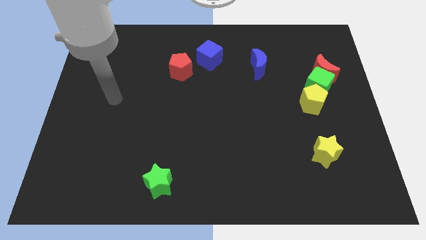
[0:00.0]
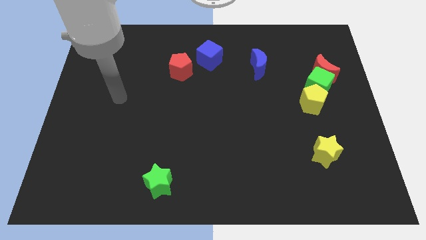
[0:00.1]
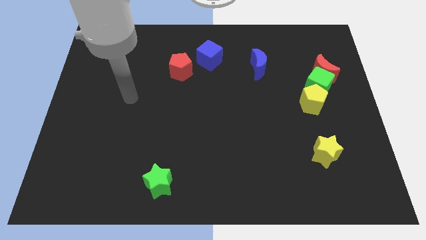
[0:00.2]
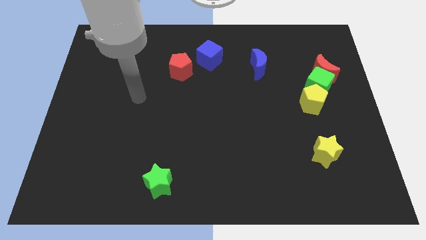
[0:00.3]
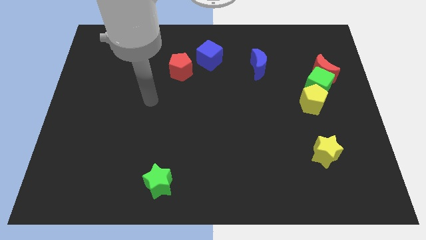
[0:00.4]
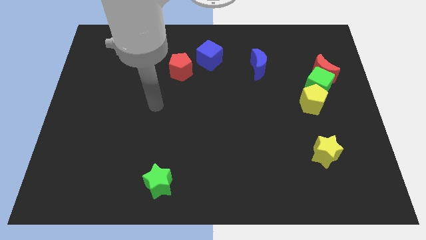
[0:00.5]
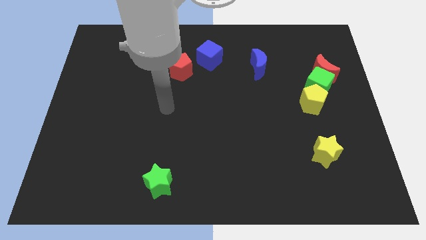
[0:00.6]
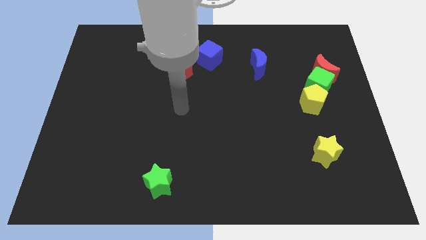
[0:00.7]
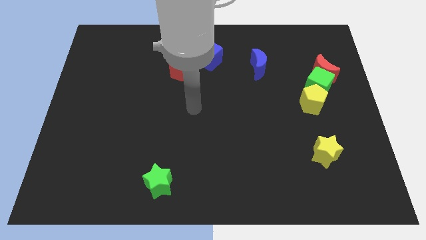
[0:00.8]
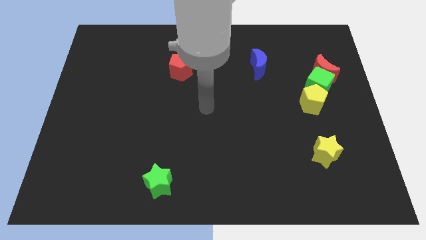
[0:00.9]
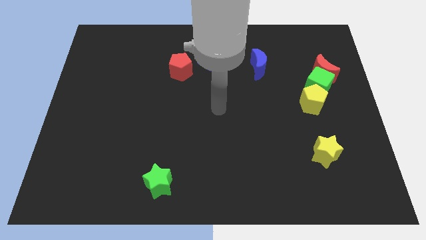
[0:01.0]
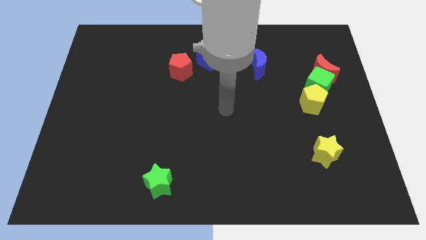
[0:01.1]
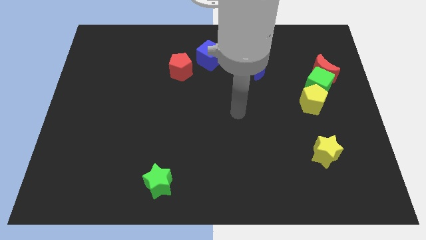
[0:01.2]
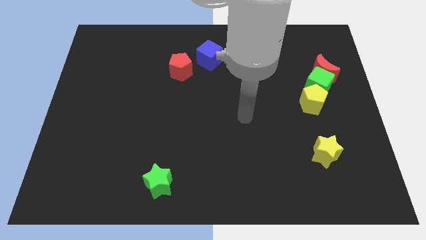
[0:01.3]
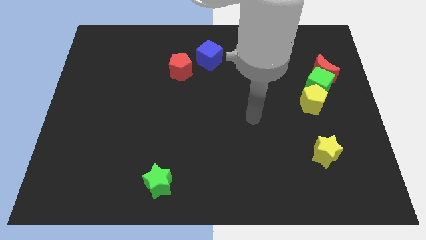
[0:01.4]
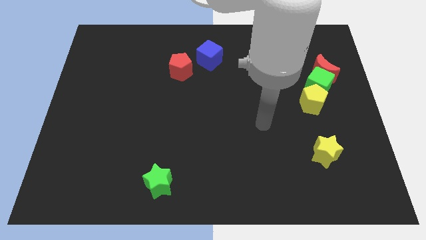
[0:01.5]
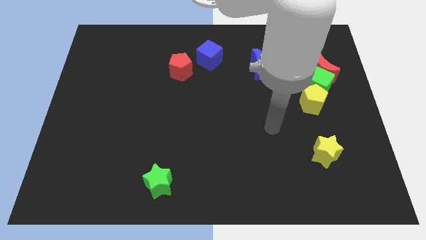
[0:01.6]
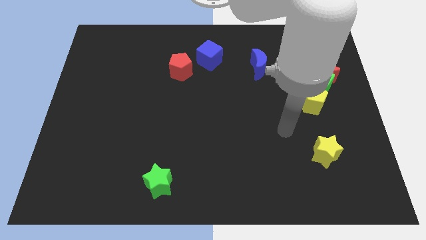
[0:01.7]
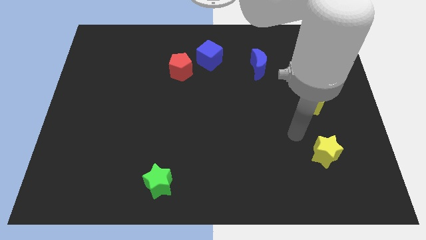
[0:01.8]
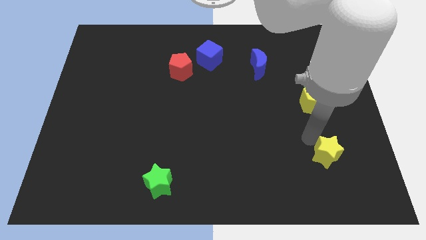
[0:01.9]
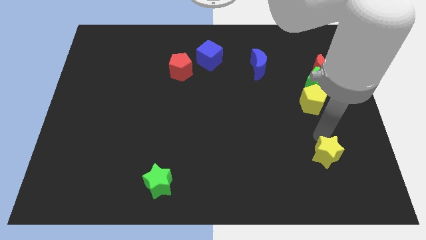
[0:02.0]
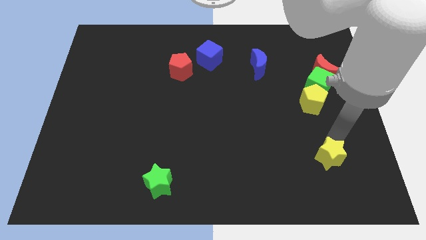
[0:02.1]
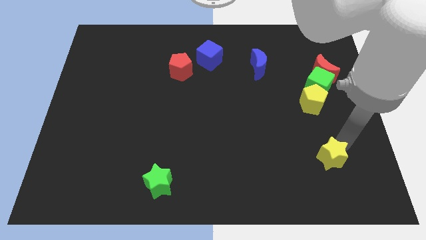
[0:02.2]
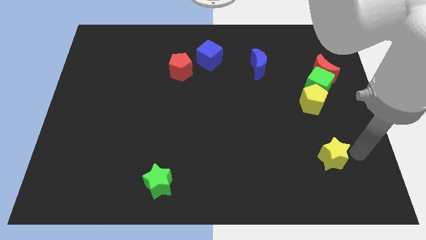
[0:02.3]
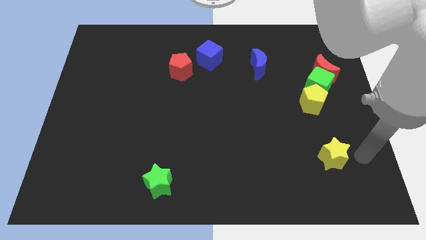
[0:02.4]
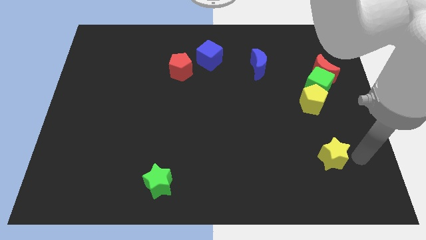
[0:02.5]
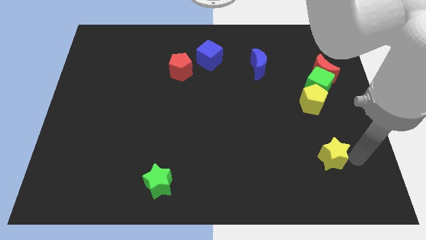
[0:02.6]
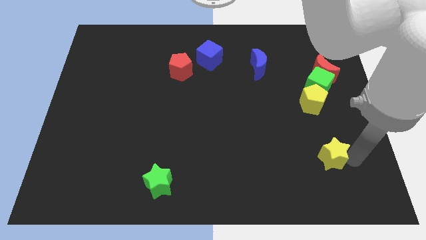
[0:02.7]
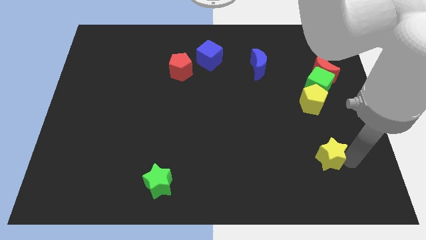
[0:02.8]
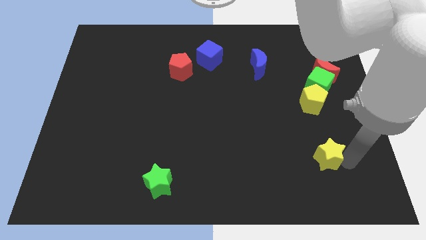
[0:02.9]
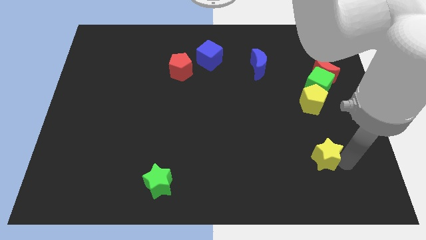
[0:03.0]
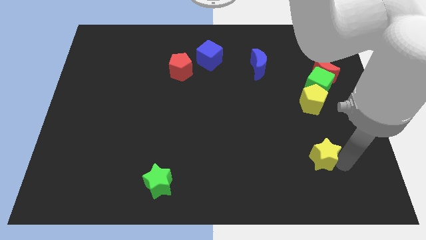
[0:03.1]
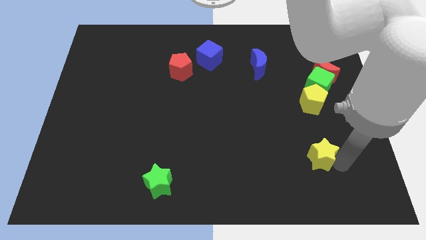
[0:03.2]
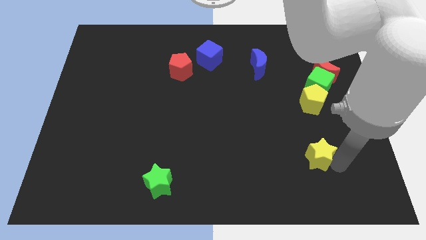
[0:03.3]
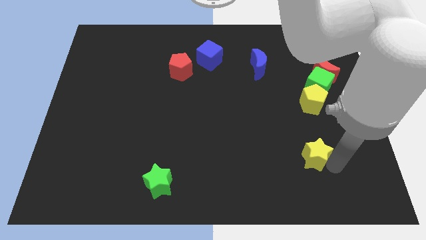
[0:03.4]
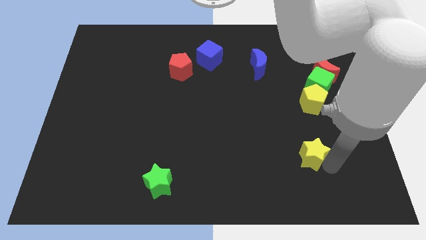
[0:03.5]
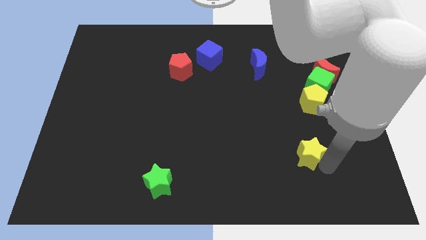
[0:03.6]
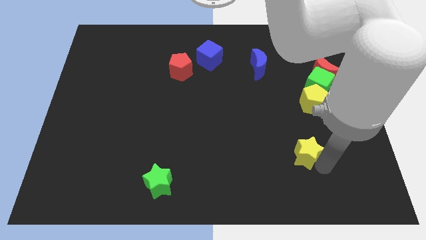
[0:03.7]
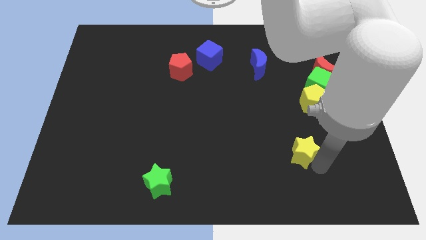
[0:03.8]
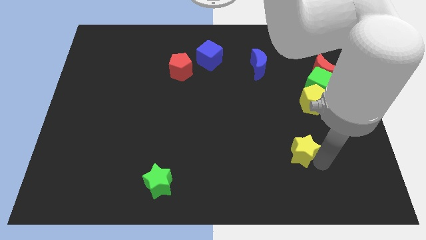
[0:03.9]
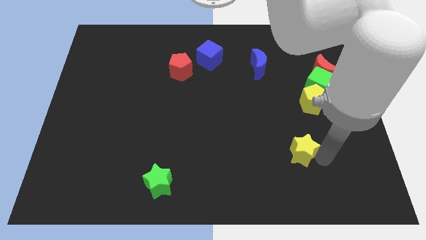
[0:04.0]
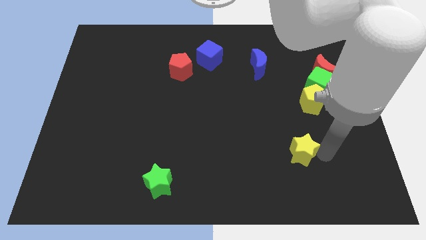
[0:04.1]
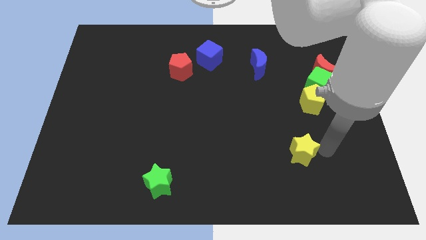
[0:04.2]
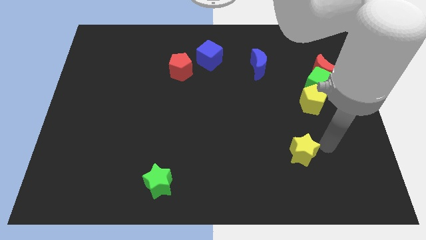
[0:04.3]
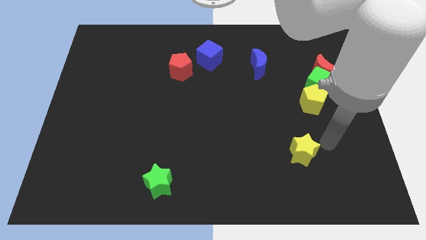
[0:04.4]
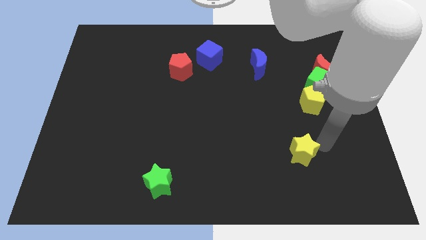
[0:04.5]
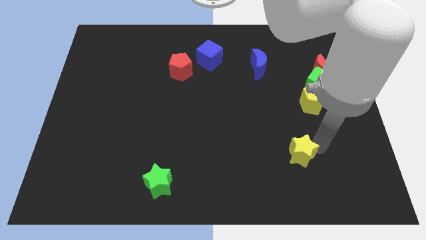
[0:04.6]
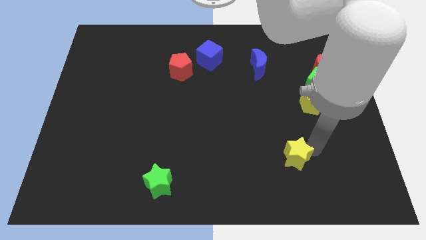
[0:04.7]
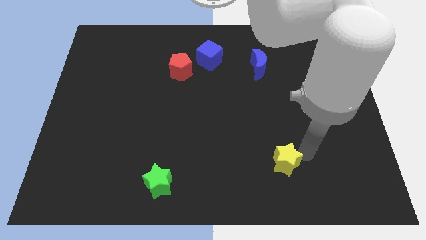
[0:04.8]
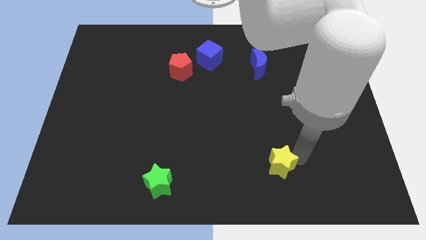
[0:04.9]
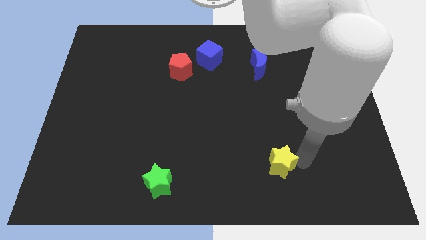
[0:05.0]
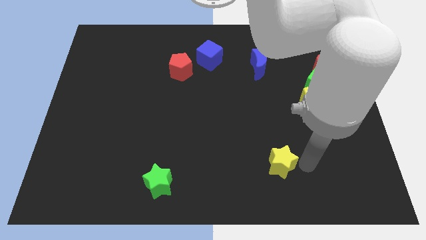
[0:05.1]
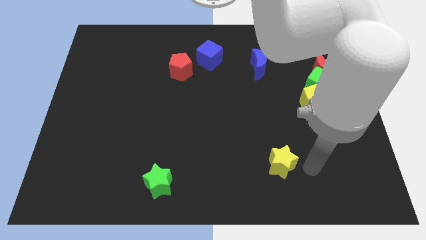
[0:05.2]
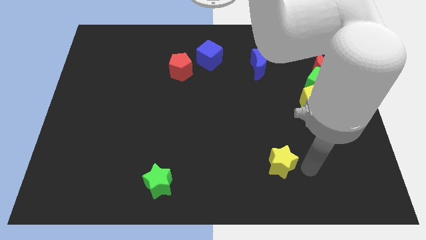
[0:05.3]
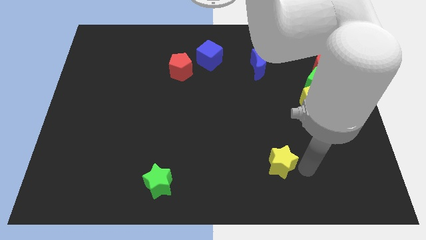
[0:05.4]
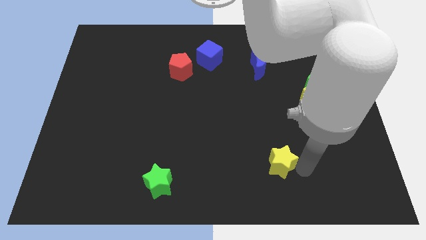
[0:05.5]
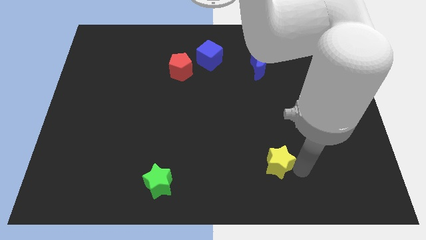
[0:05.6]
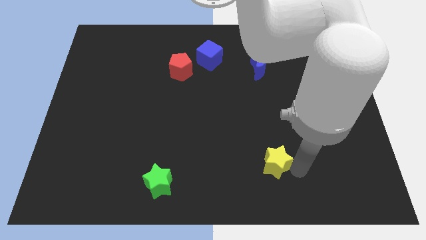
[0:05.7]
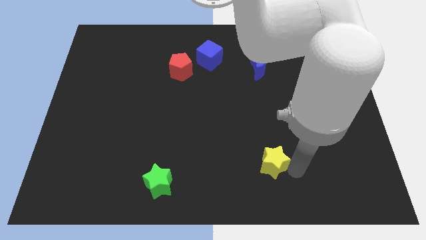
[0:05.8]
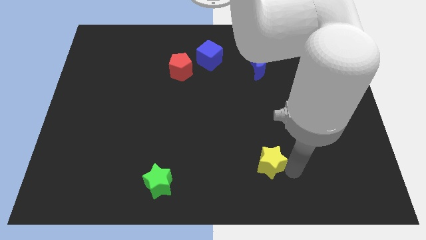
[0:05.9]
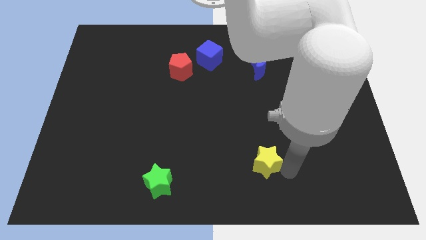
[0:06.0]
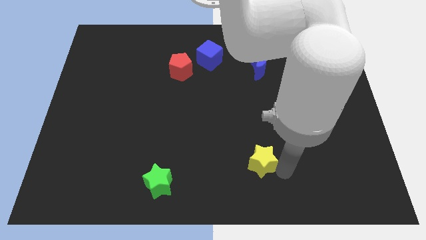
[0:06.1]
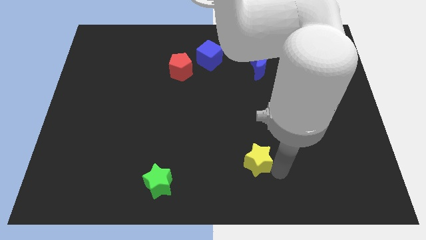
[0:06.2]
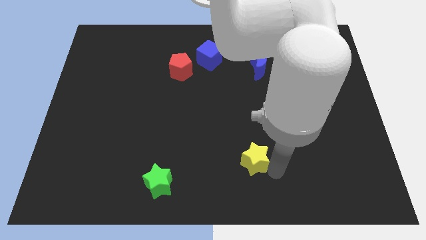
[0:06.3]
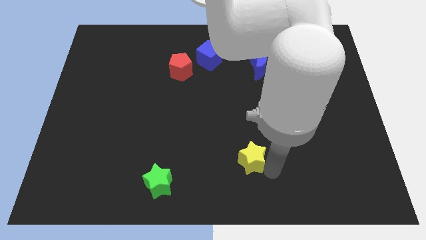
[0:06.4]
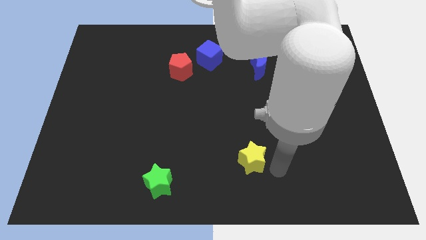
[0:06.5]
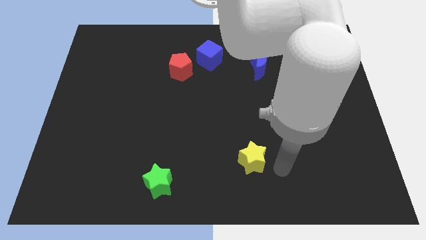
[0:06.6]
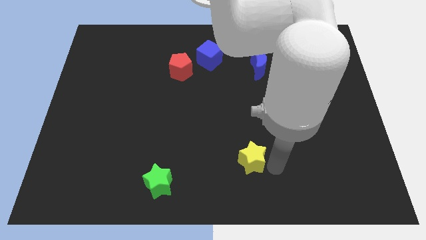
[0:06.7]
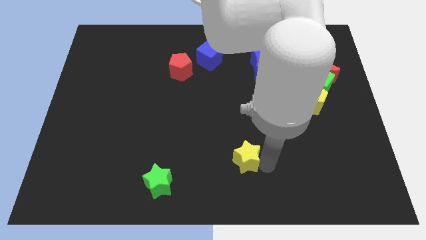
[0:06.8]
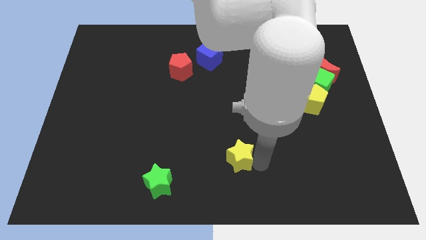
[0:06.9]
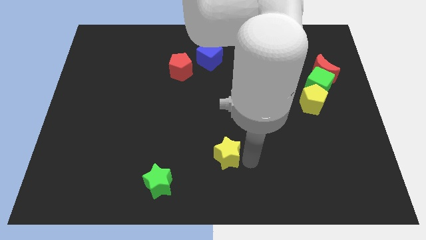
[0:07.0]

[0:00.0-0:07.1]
slide the yellow star to the left

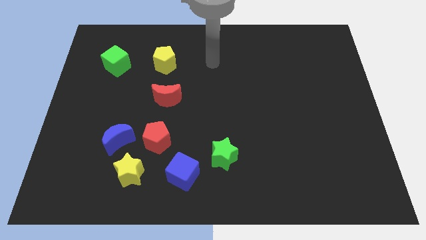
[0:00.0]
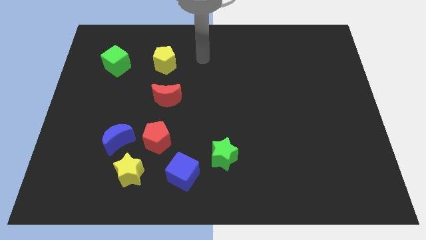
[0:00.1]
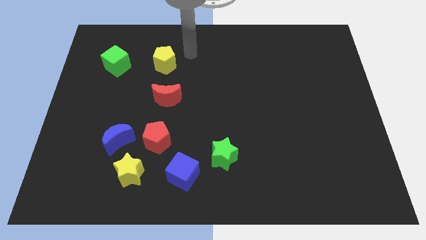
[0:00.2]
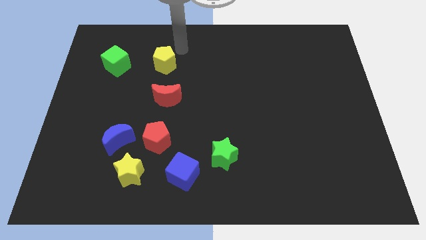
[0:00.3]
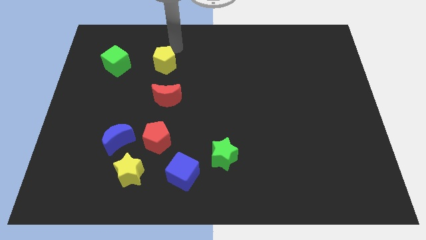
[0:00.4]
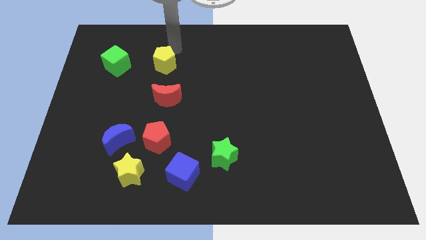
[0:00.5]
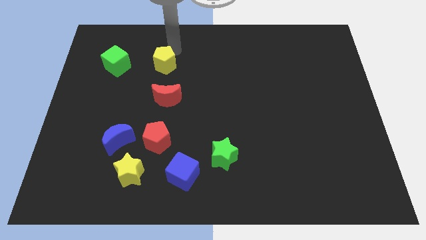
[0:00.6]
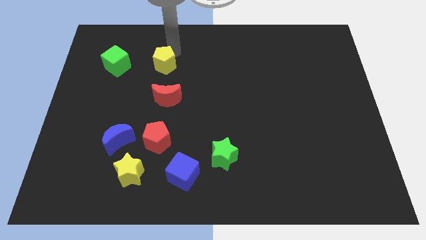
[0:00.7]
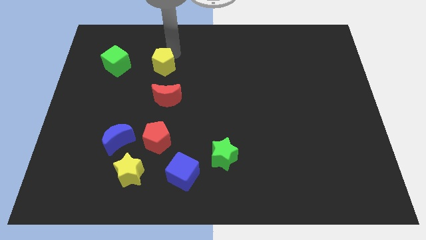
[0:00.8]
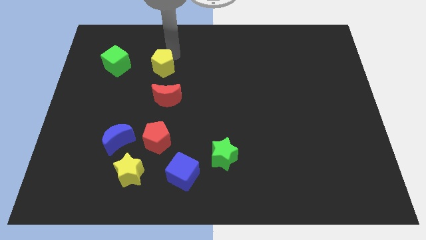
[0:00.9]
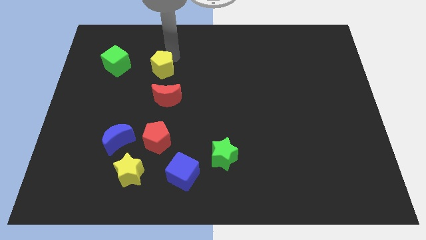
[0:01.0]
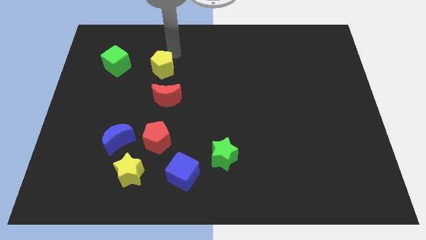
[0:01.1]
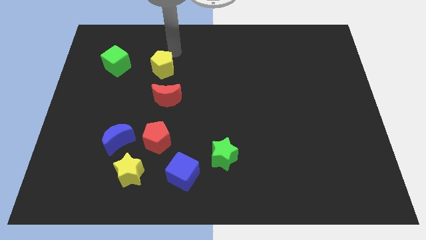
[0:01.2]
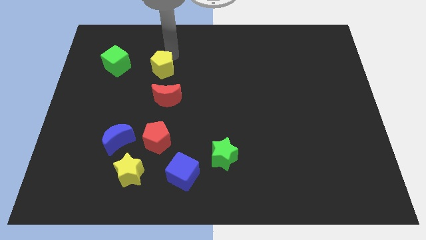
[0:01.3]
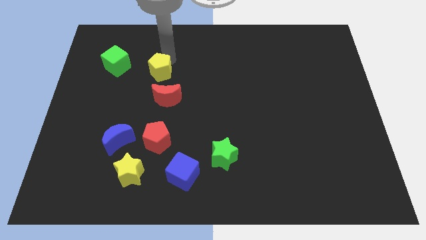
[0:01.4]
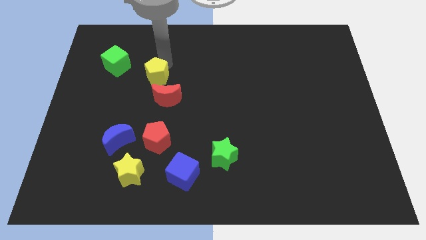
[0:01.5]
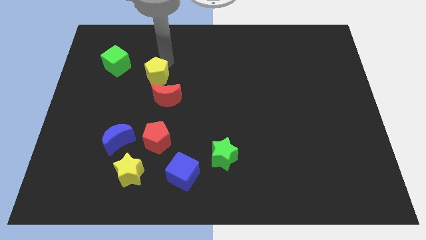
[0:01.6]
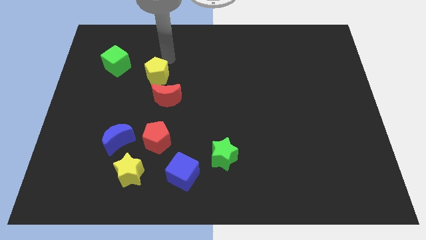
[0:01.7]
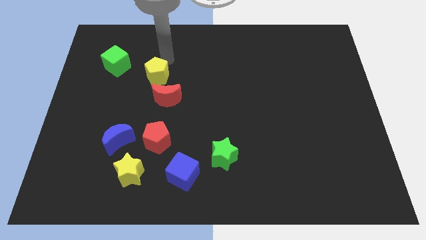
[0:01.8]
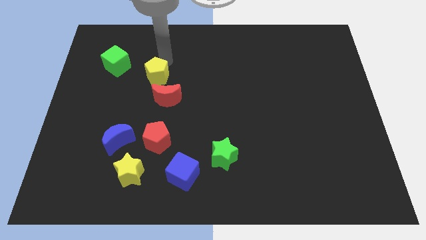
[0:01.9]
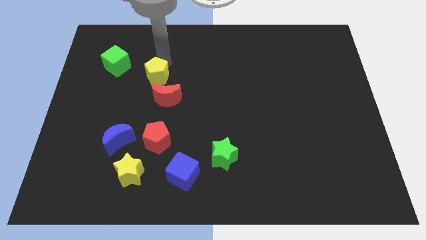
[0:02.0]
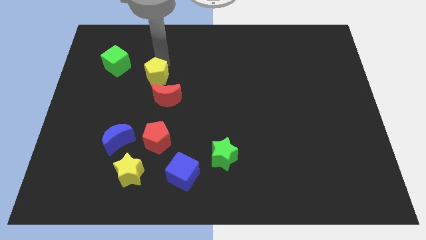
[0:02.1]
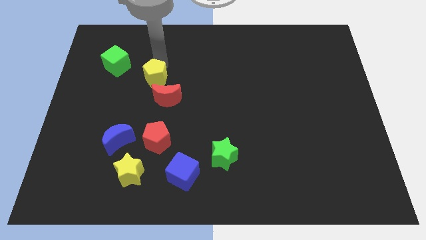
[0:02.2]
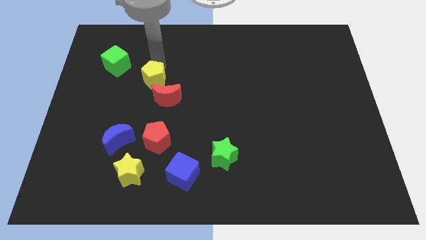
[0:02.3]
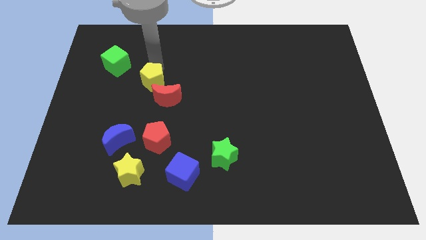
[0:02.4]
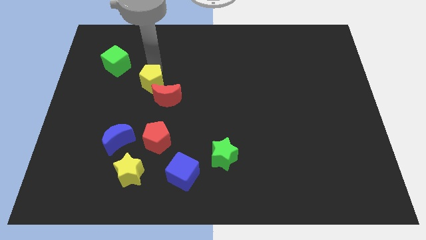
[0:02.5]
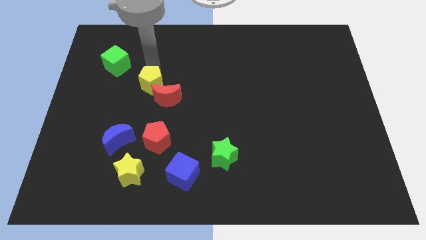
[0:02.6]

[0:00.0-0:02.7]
slightly push the yellow pentagon downwards
